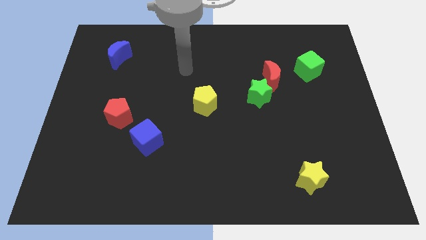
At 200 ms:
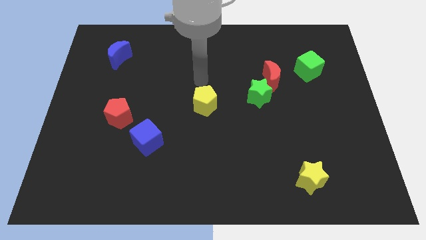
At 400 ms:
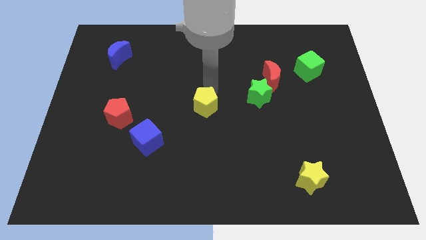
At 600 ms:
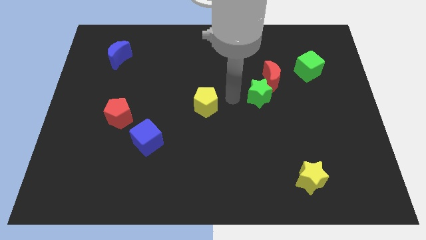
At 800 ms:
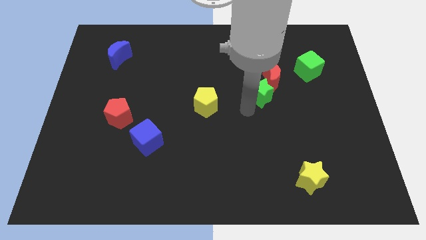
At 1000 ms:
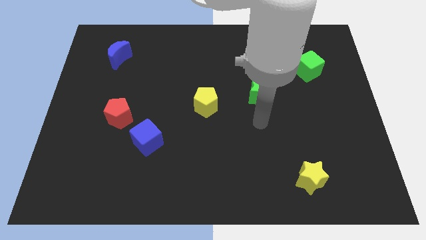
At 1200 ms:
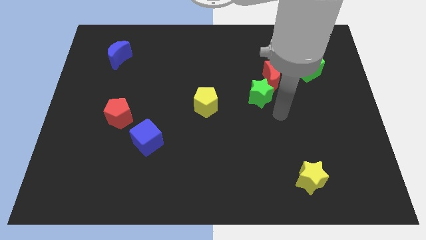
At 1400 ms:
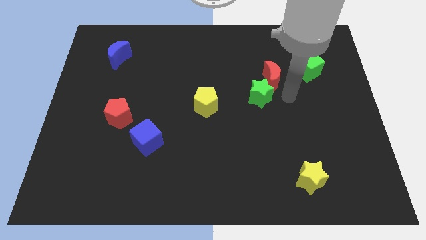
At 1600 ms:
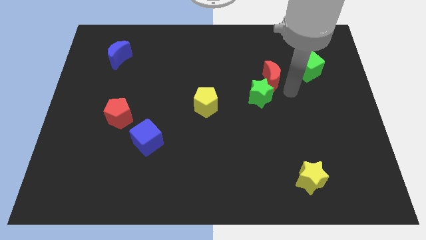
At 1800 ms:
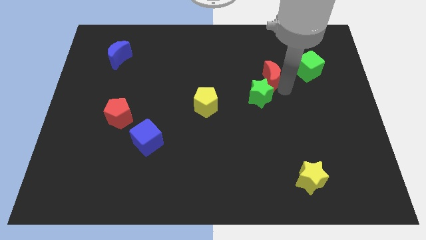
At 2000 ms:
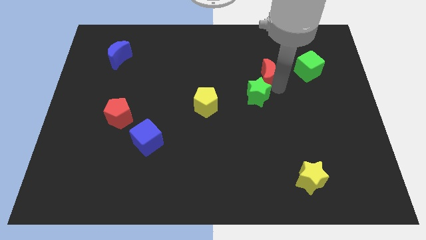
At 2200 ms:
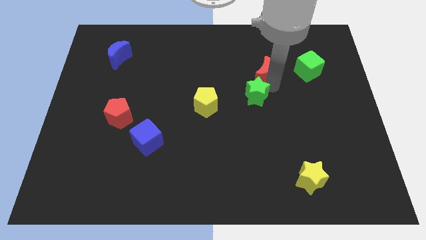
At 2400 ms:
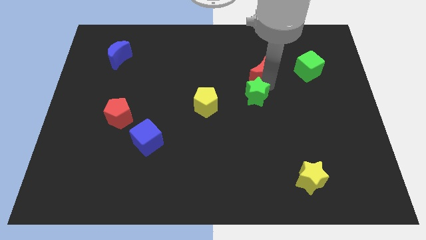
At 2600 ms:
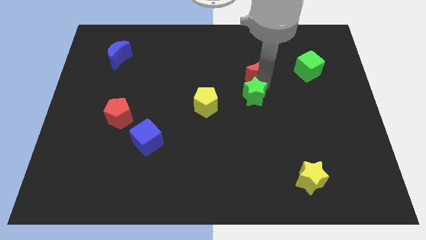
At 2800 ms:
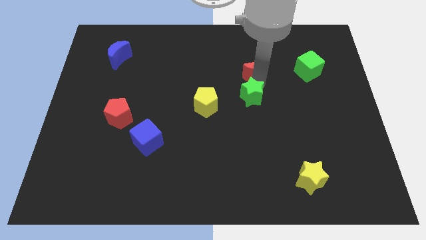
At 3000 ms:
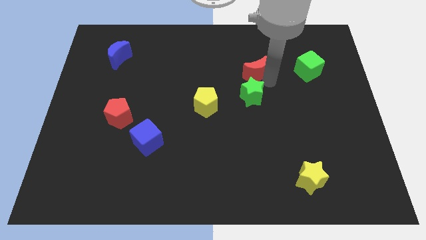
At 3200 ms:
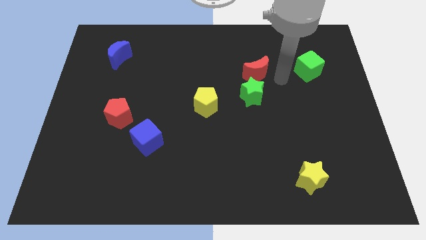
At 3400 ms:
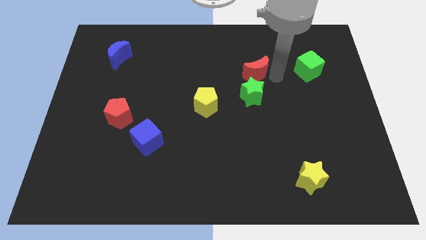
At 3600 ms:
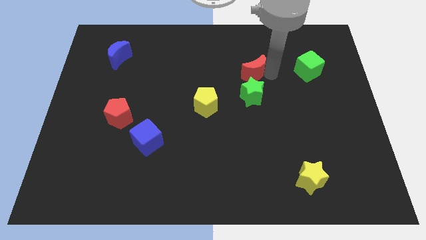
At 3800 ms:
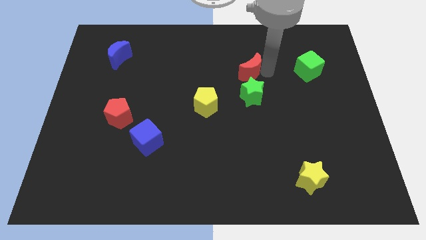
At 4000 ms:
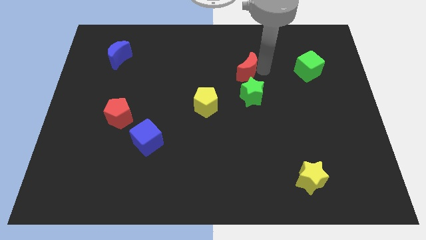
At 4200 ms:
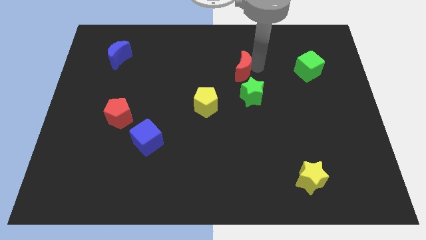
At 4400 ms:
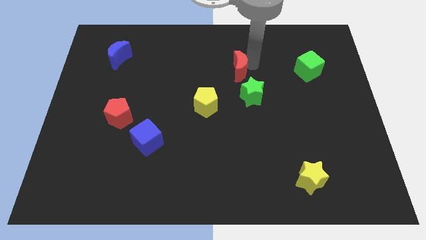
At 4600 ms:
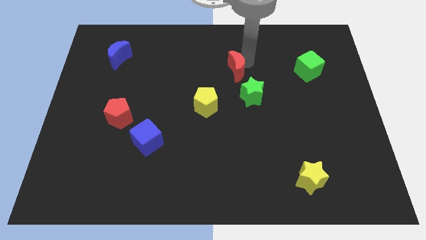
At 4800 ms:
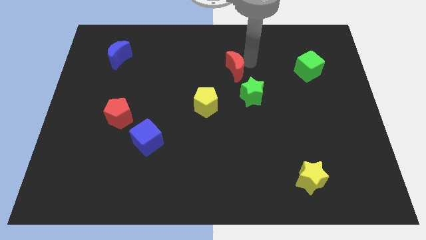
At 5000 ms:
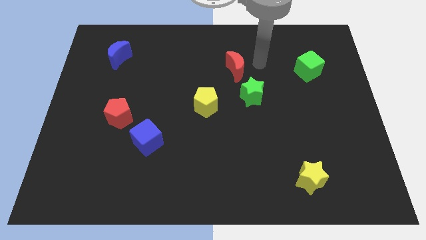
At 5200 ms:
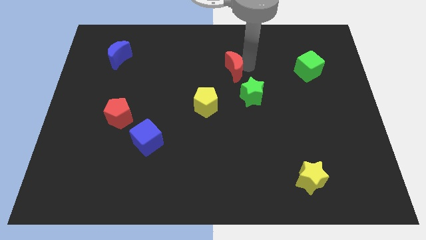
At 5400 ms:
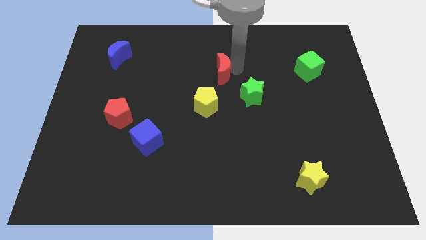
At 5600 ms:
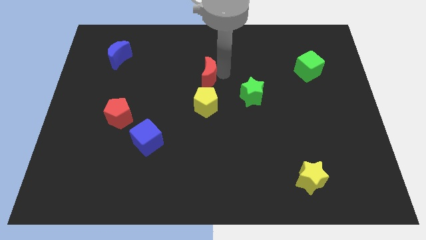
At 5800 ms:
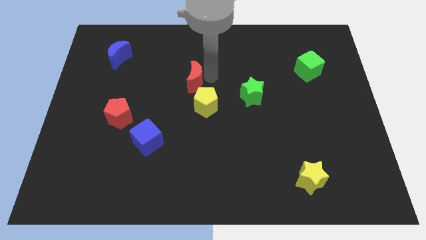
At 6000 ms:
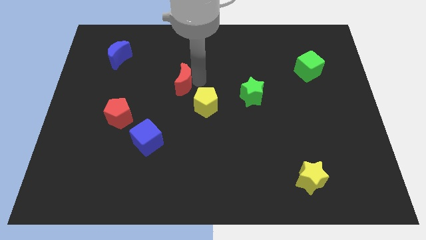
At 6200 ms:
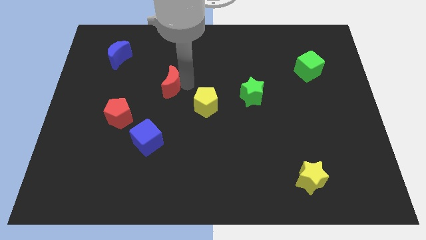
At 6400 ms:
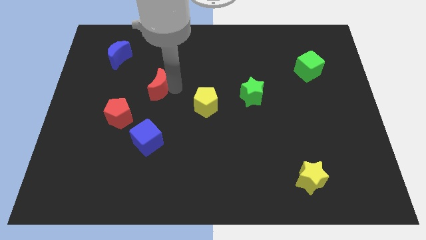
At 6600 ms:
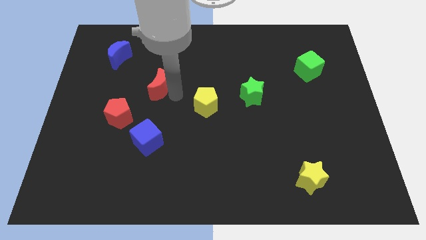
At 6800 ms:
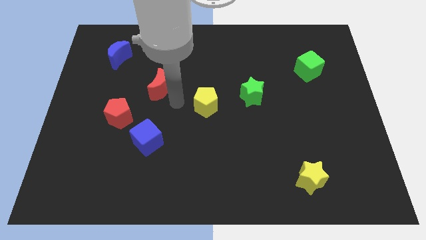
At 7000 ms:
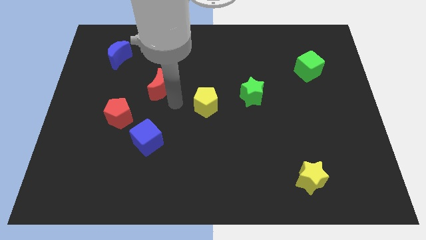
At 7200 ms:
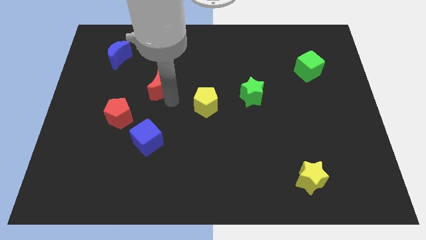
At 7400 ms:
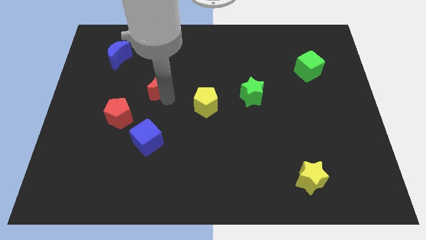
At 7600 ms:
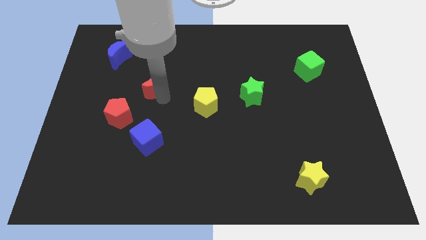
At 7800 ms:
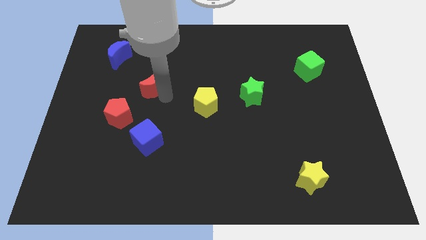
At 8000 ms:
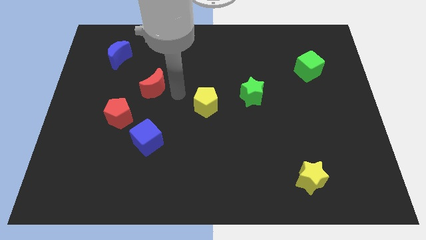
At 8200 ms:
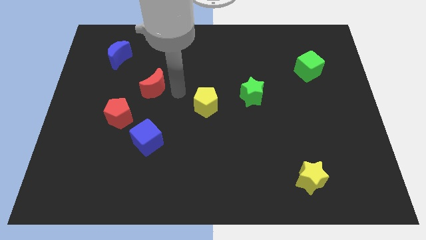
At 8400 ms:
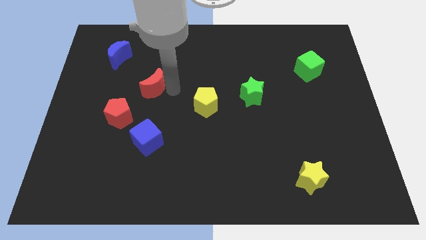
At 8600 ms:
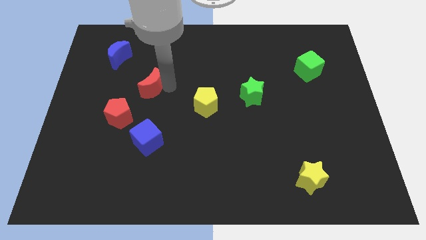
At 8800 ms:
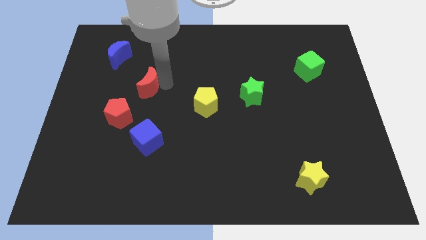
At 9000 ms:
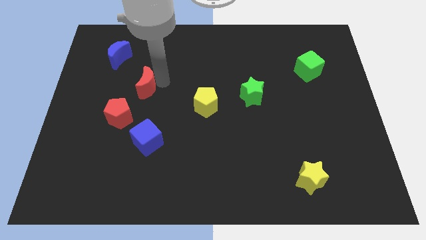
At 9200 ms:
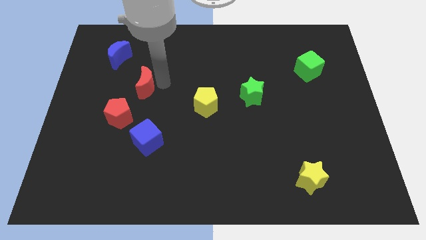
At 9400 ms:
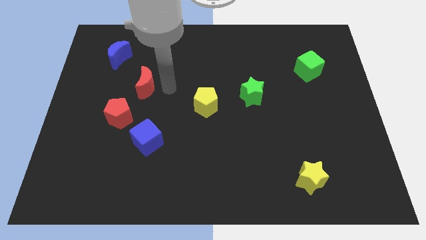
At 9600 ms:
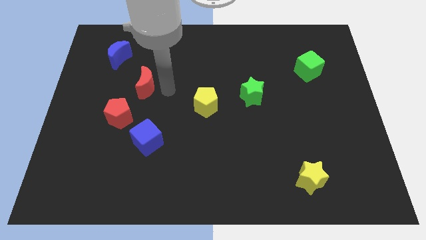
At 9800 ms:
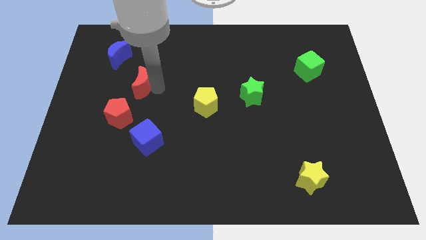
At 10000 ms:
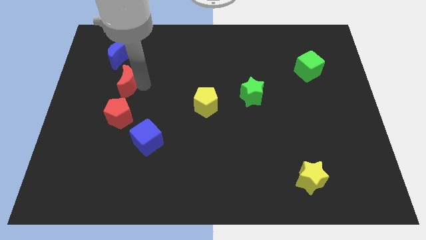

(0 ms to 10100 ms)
push the red moon below the blue moon

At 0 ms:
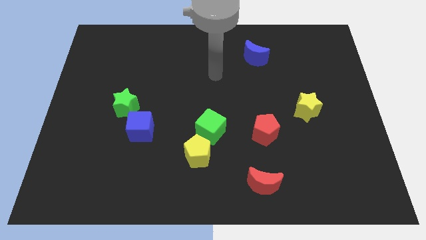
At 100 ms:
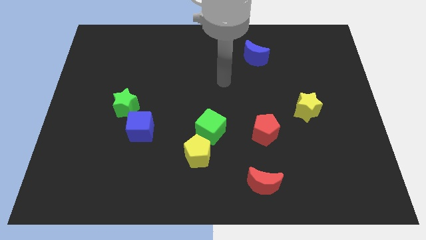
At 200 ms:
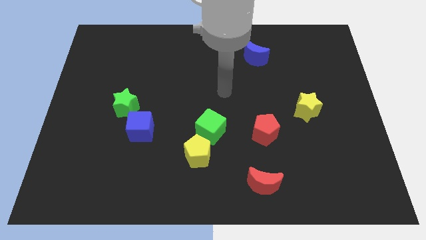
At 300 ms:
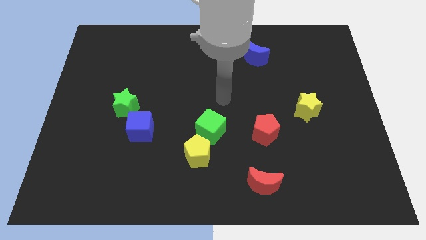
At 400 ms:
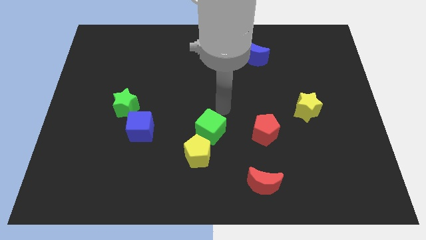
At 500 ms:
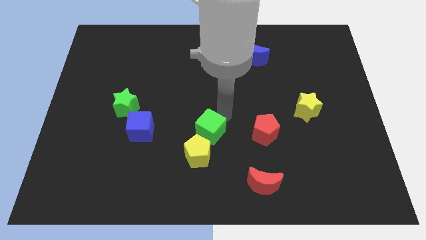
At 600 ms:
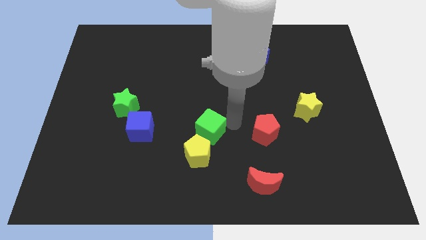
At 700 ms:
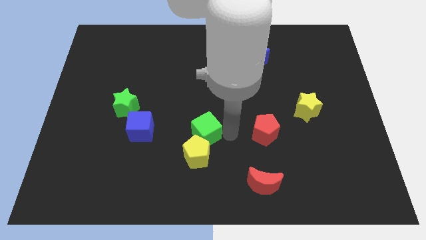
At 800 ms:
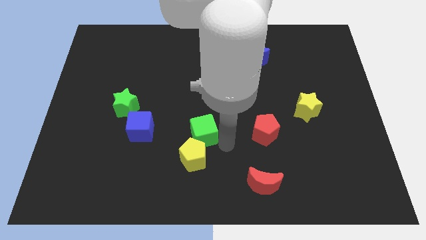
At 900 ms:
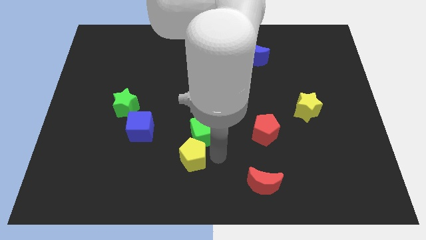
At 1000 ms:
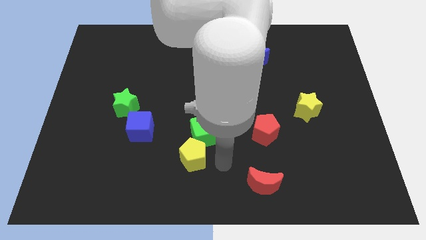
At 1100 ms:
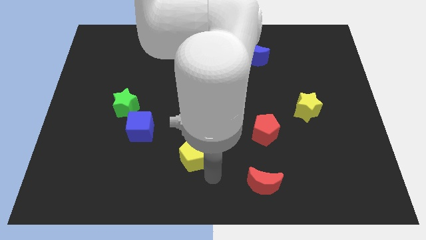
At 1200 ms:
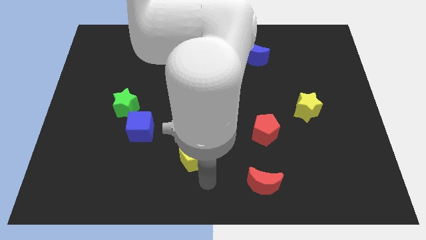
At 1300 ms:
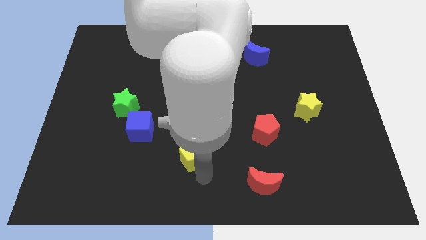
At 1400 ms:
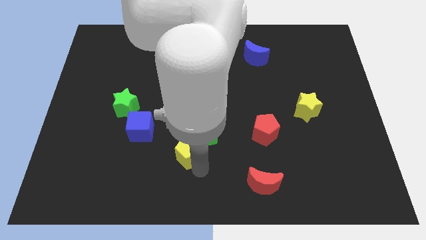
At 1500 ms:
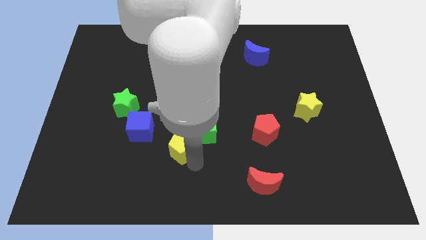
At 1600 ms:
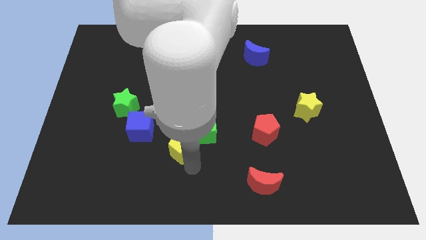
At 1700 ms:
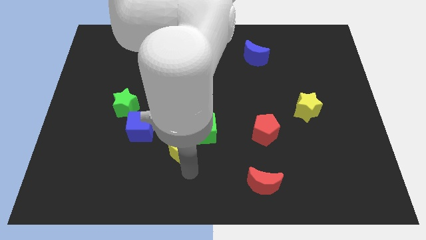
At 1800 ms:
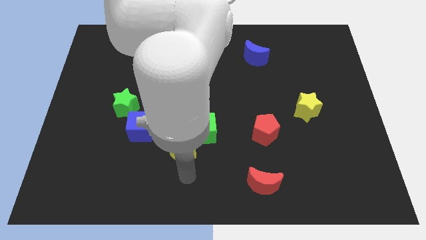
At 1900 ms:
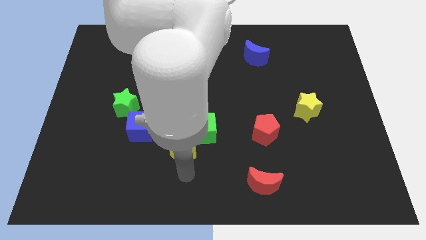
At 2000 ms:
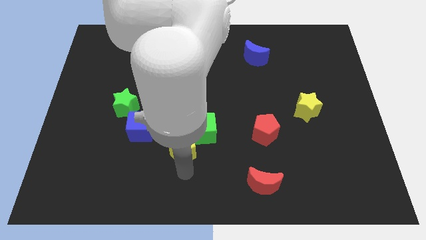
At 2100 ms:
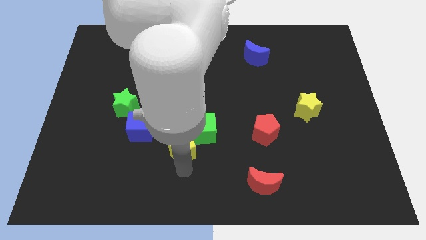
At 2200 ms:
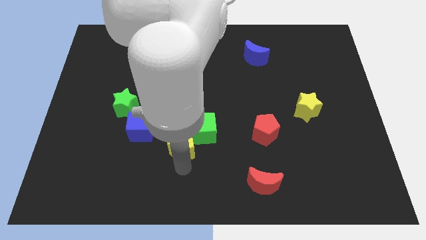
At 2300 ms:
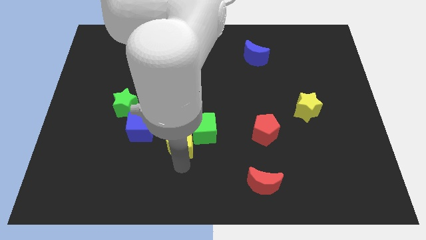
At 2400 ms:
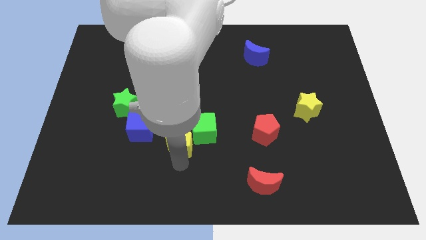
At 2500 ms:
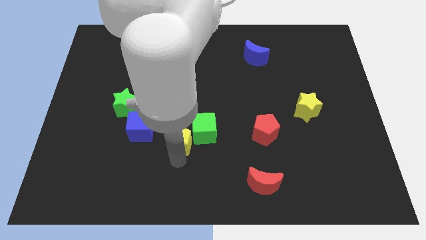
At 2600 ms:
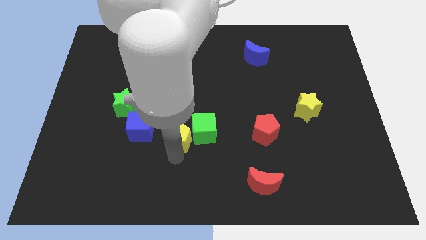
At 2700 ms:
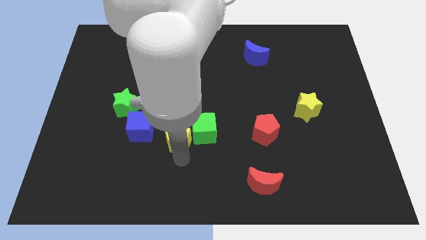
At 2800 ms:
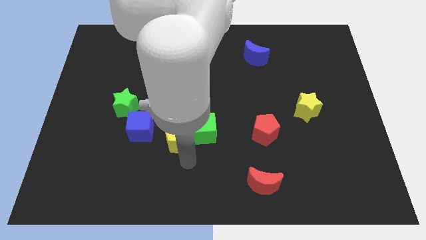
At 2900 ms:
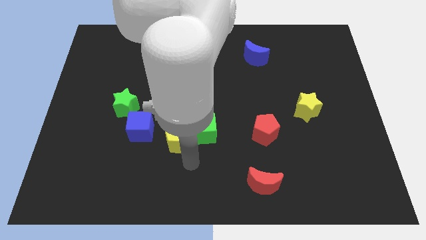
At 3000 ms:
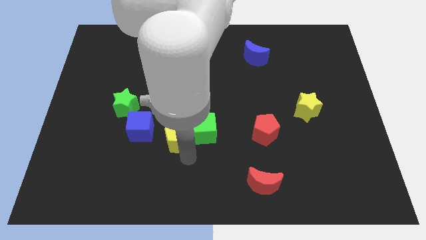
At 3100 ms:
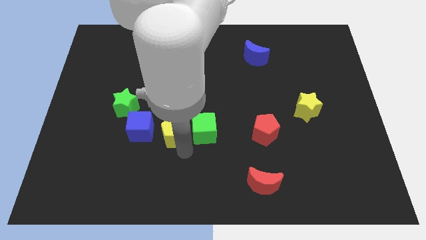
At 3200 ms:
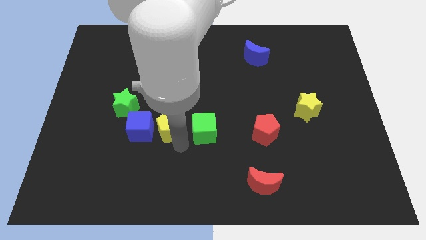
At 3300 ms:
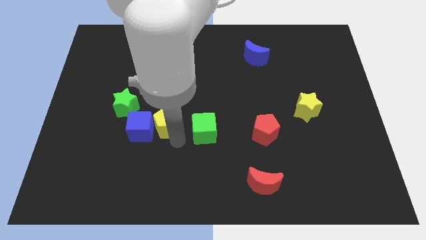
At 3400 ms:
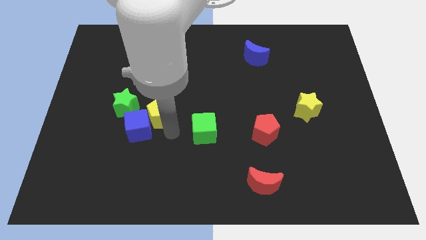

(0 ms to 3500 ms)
move the yellow pentagon to the top side of the blue cube
